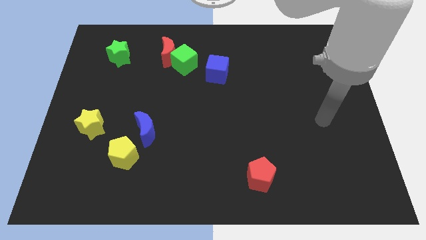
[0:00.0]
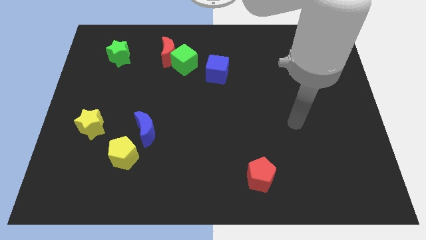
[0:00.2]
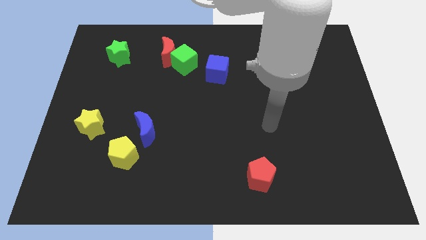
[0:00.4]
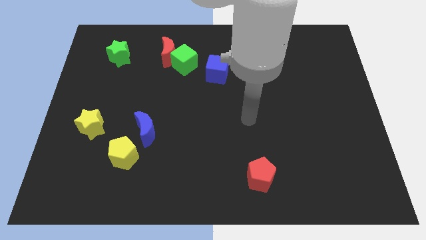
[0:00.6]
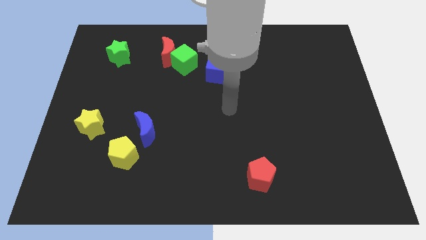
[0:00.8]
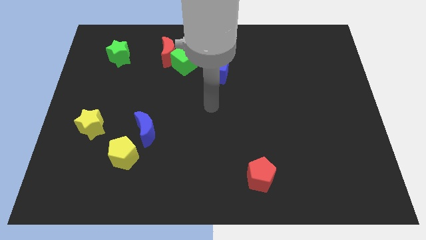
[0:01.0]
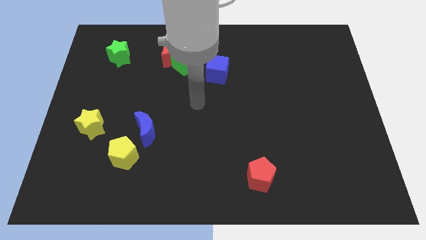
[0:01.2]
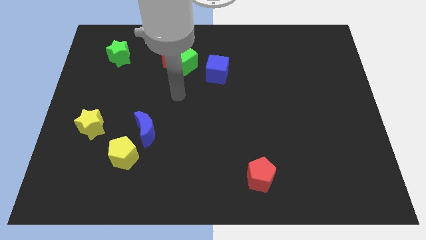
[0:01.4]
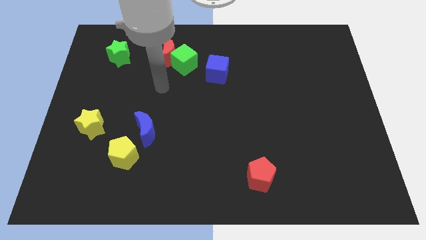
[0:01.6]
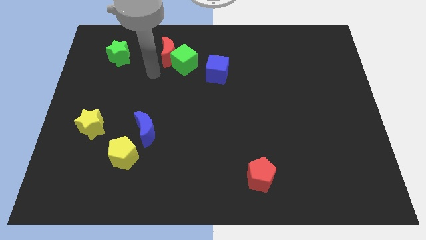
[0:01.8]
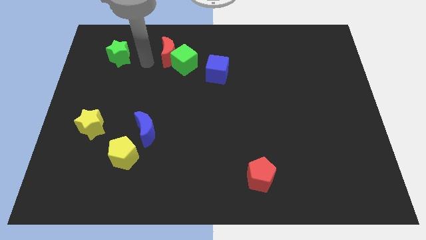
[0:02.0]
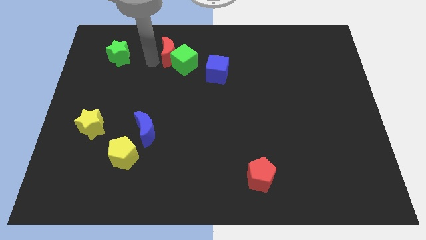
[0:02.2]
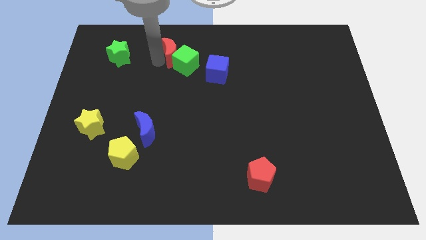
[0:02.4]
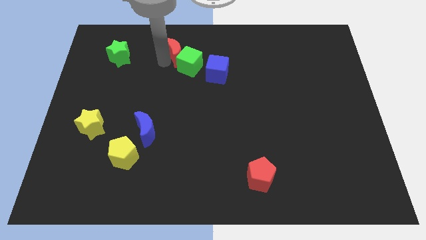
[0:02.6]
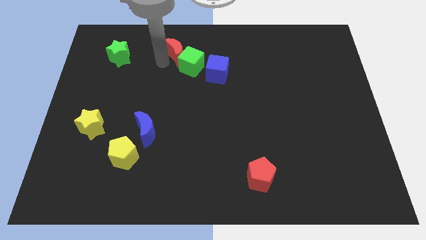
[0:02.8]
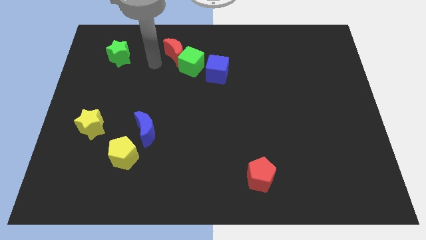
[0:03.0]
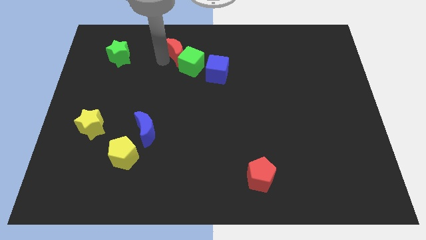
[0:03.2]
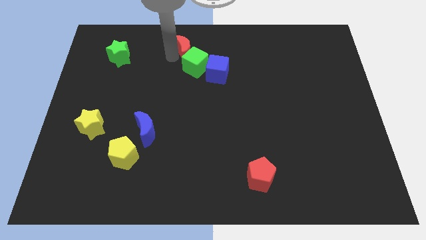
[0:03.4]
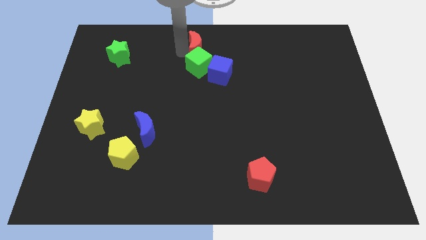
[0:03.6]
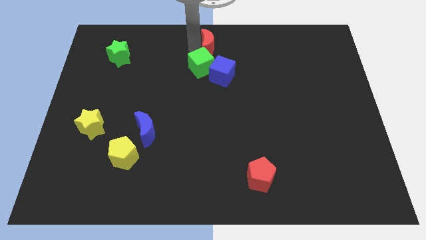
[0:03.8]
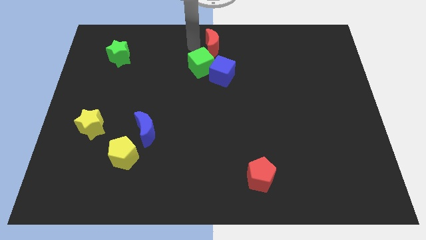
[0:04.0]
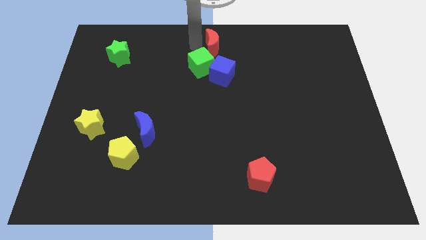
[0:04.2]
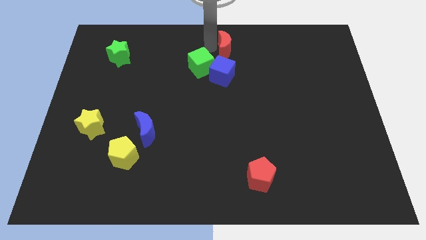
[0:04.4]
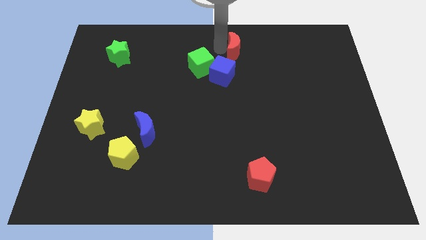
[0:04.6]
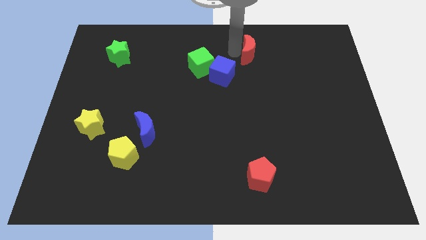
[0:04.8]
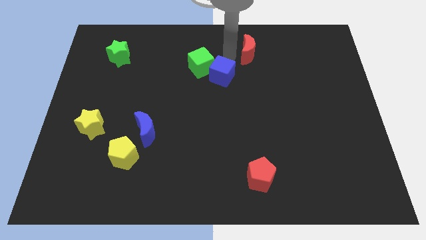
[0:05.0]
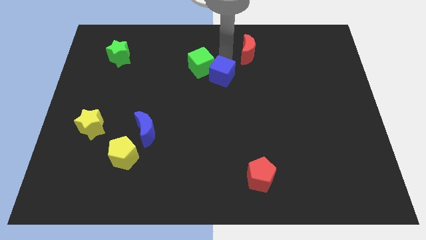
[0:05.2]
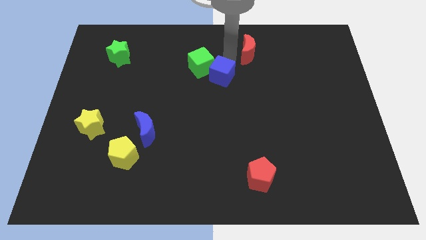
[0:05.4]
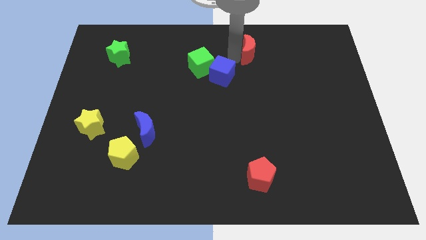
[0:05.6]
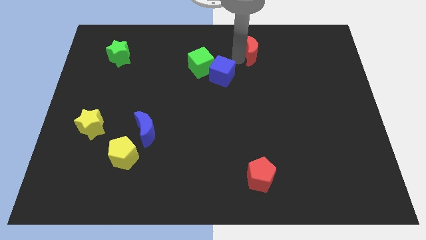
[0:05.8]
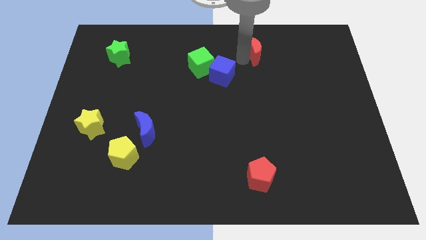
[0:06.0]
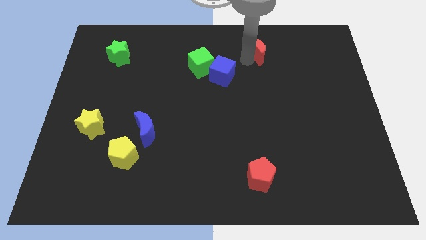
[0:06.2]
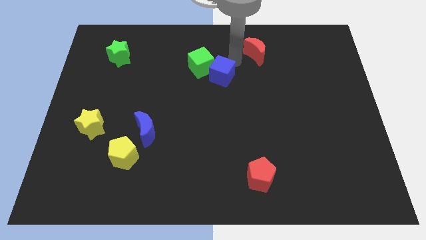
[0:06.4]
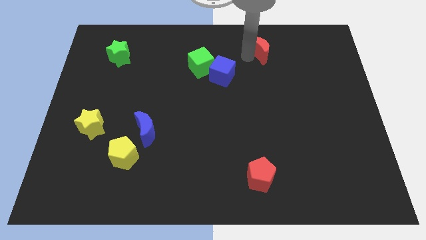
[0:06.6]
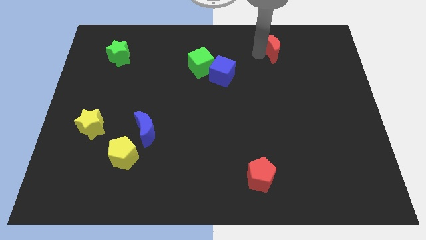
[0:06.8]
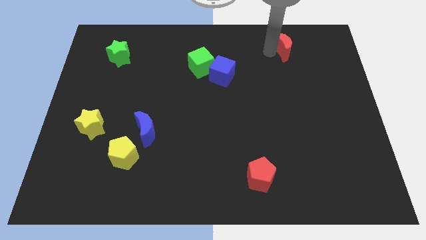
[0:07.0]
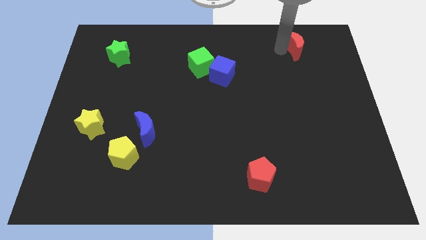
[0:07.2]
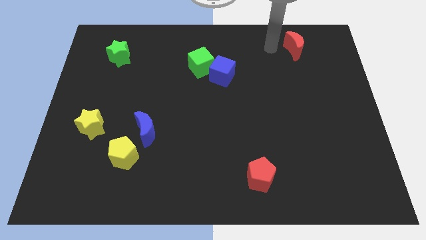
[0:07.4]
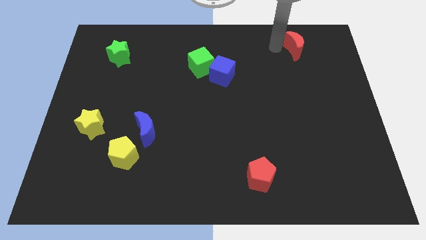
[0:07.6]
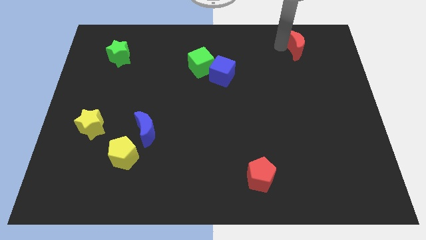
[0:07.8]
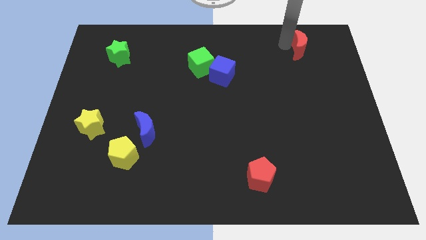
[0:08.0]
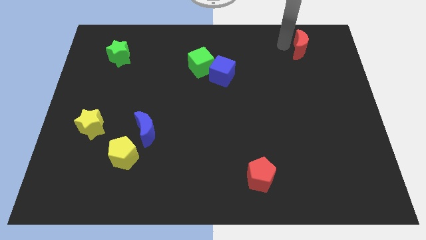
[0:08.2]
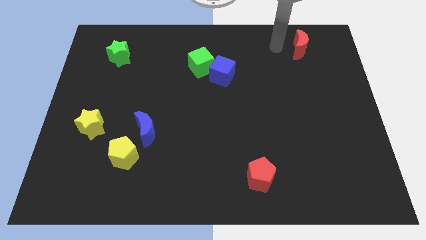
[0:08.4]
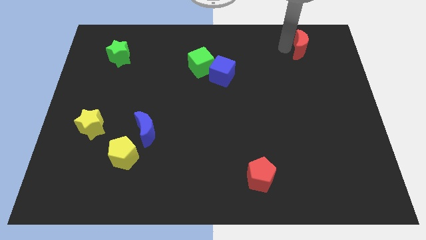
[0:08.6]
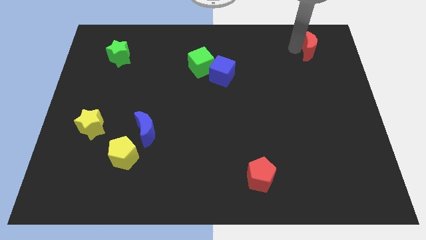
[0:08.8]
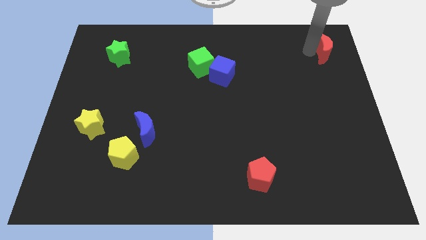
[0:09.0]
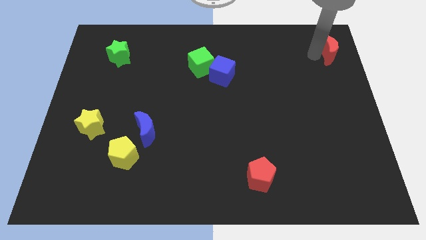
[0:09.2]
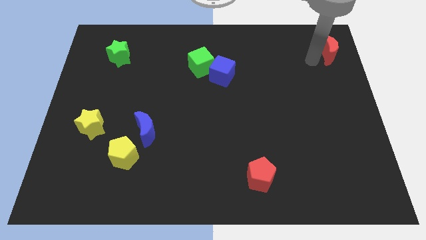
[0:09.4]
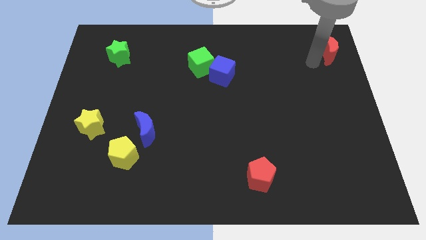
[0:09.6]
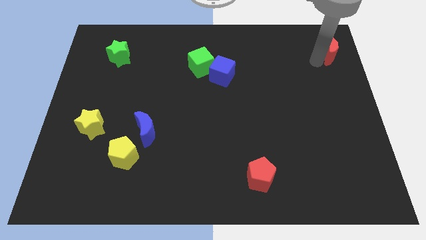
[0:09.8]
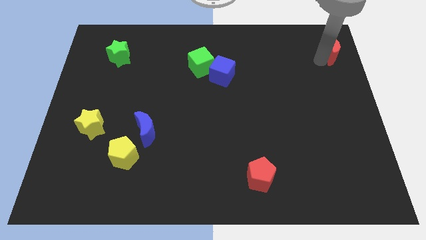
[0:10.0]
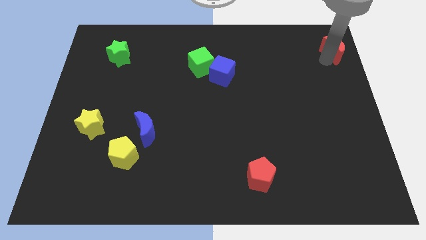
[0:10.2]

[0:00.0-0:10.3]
put the red moon to the top right of the board

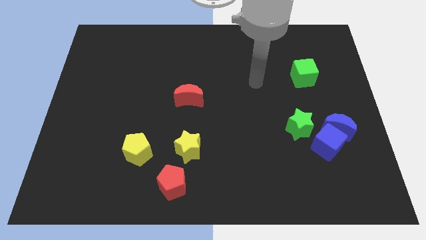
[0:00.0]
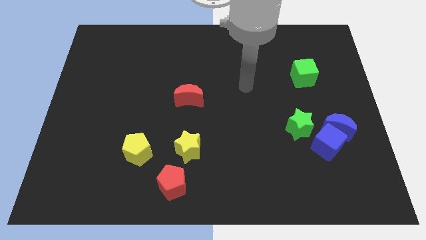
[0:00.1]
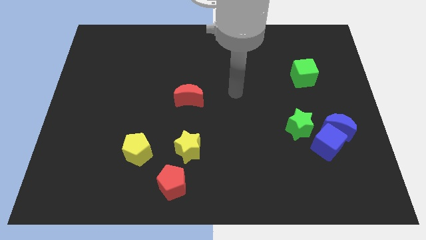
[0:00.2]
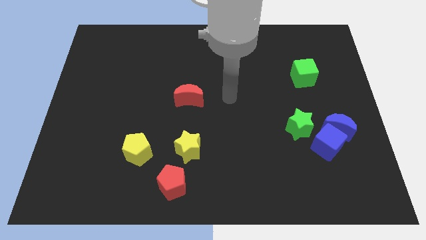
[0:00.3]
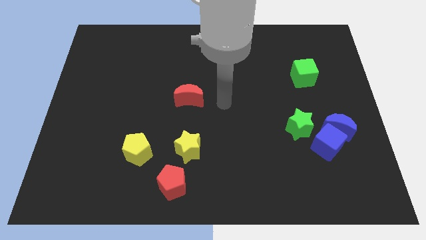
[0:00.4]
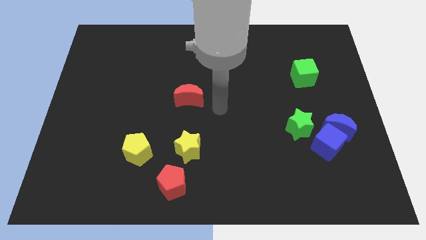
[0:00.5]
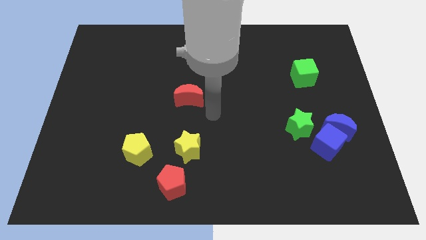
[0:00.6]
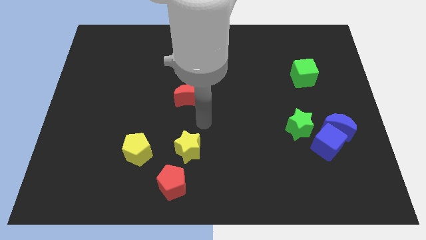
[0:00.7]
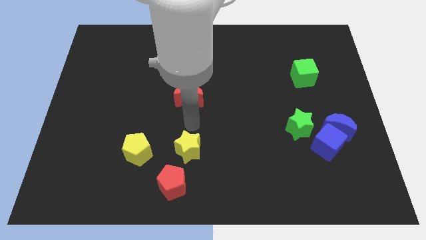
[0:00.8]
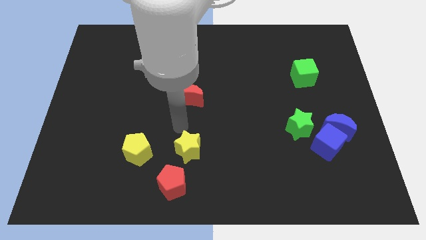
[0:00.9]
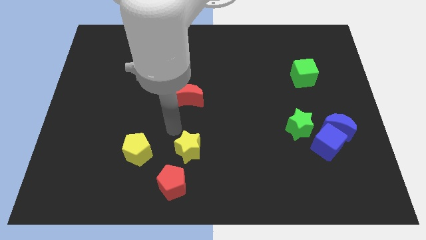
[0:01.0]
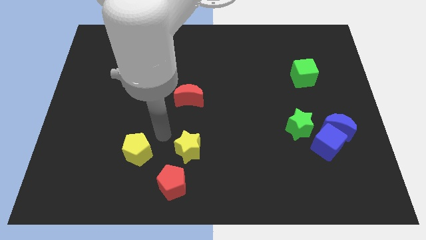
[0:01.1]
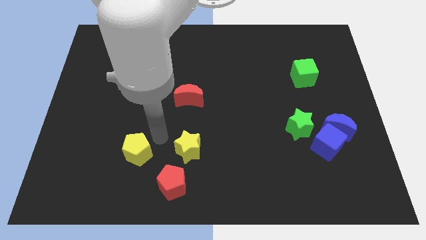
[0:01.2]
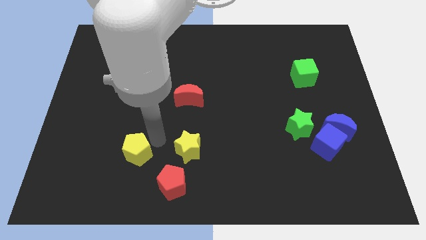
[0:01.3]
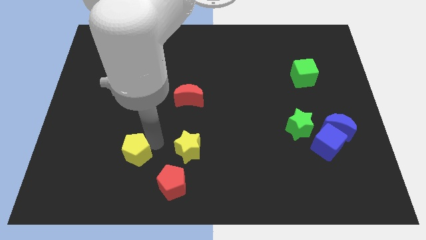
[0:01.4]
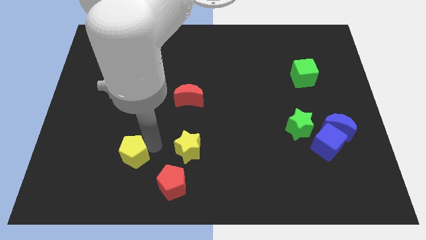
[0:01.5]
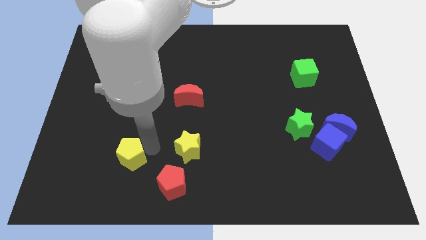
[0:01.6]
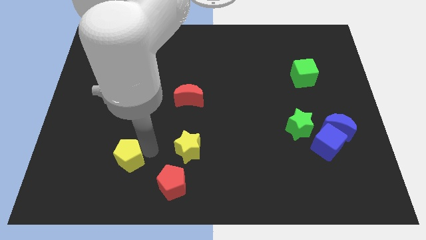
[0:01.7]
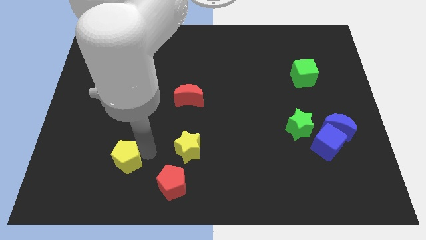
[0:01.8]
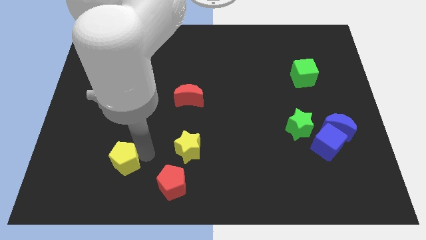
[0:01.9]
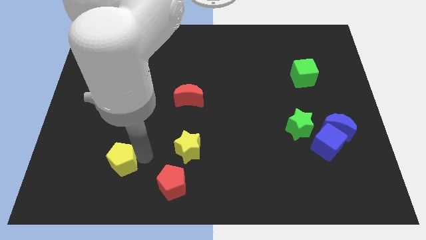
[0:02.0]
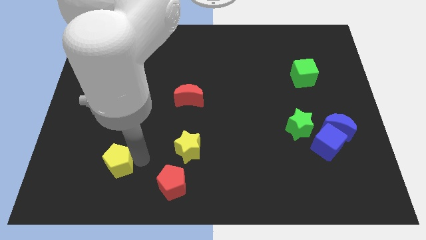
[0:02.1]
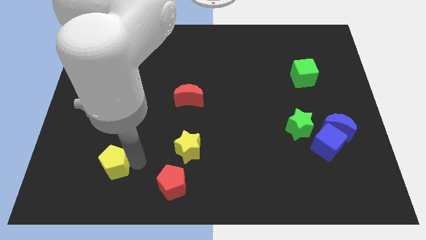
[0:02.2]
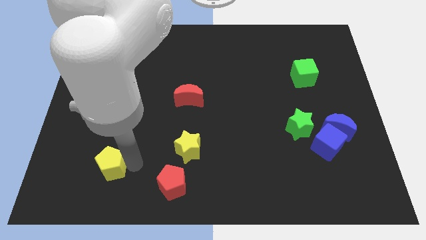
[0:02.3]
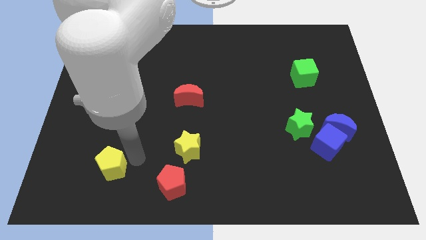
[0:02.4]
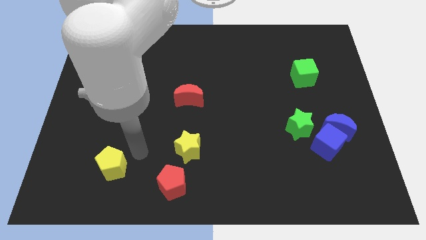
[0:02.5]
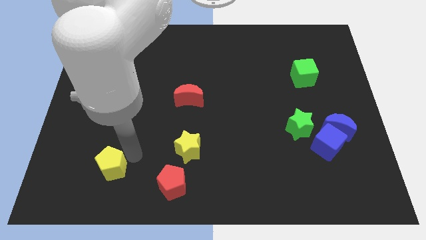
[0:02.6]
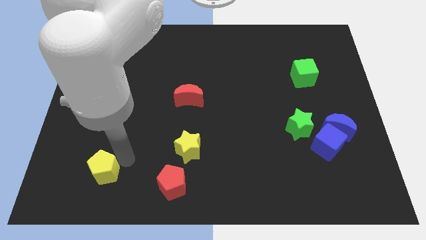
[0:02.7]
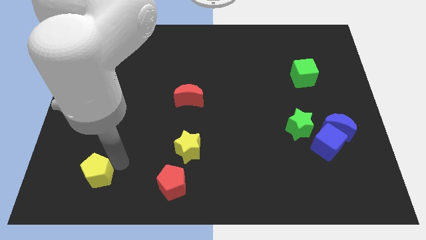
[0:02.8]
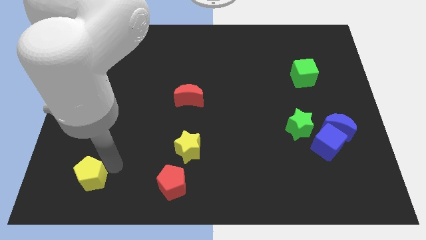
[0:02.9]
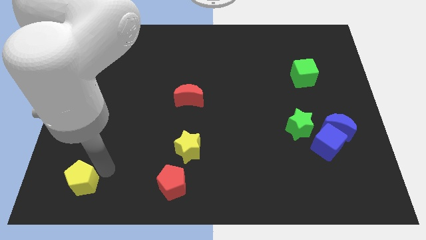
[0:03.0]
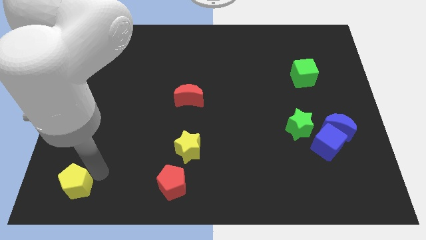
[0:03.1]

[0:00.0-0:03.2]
put the yellow pentagon to the bottom left
